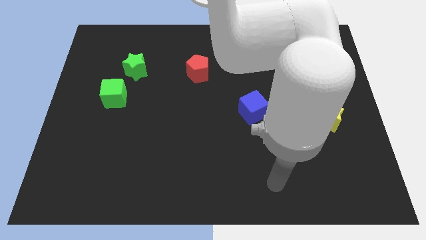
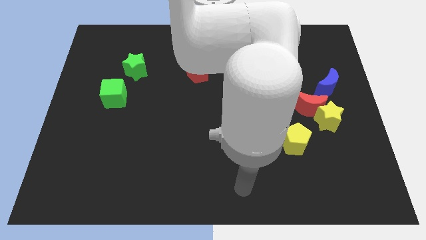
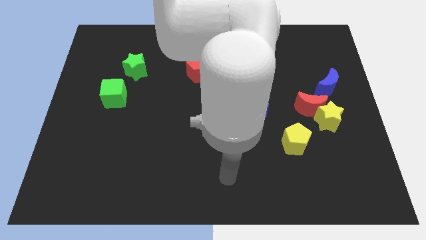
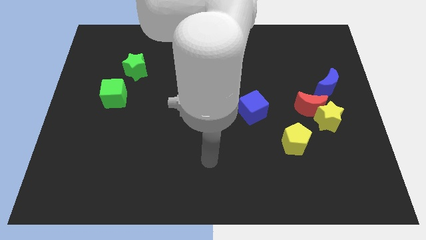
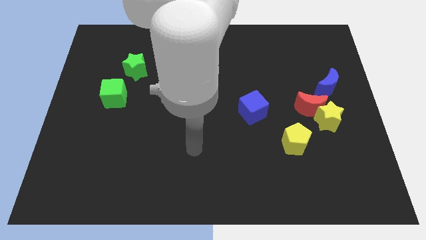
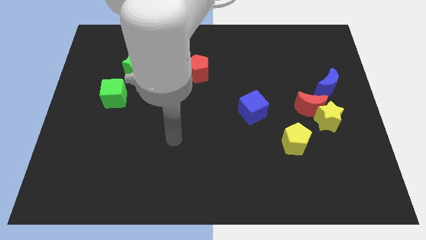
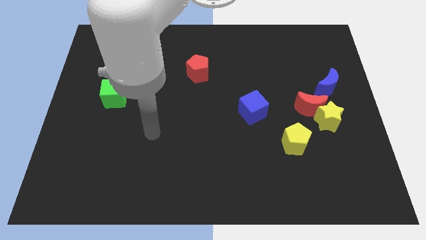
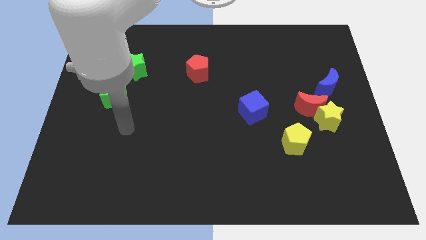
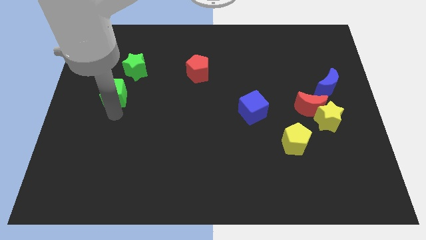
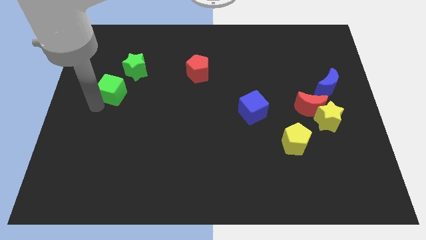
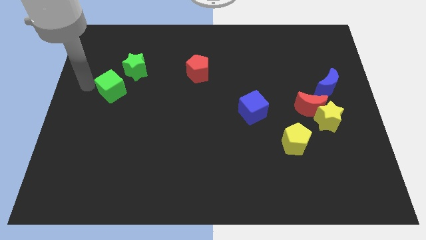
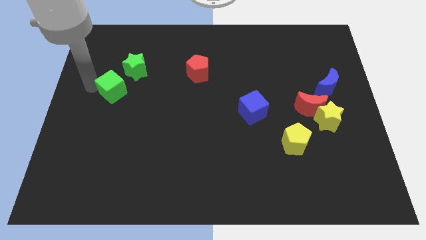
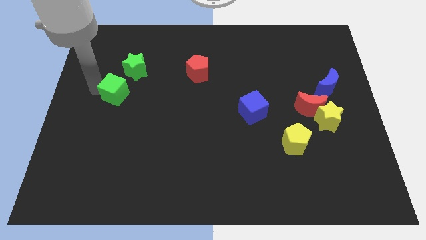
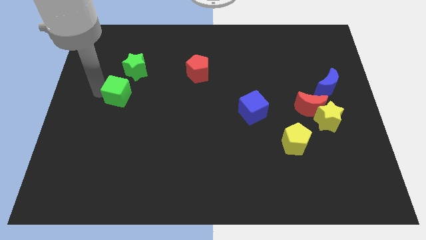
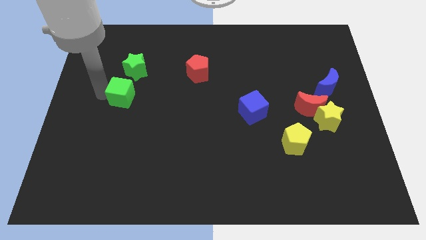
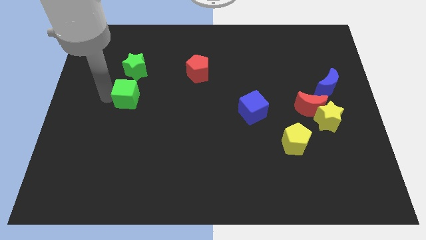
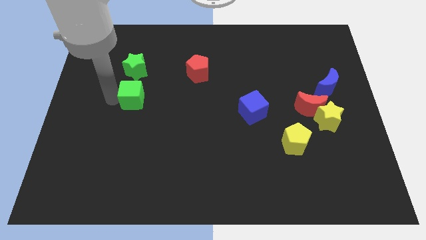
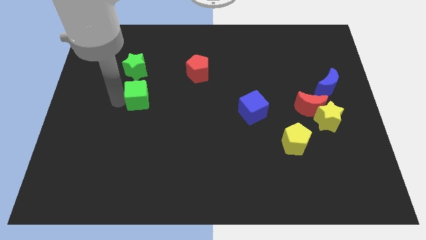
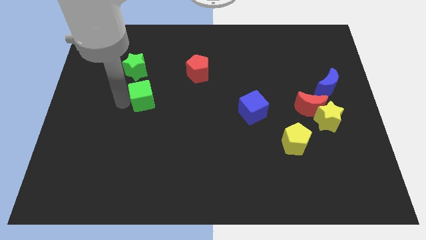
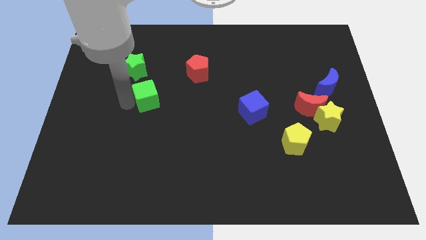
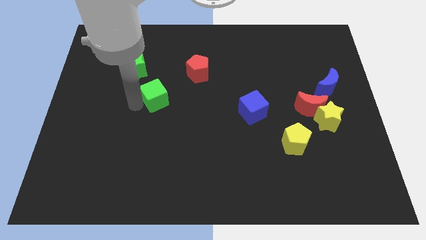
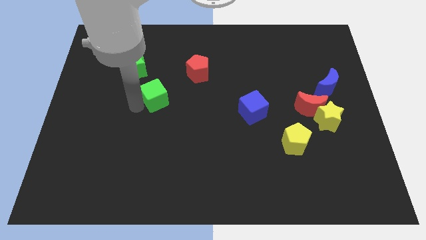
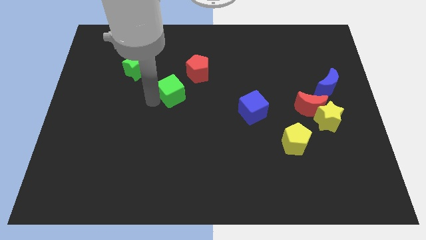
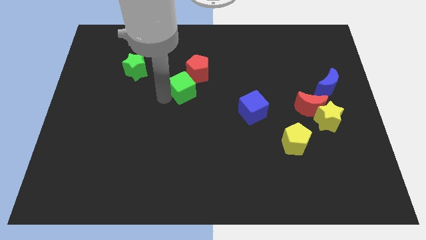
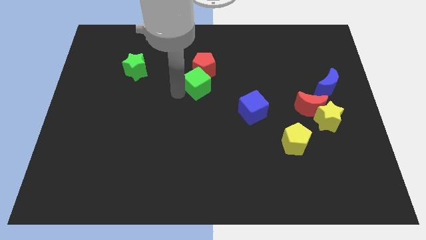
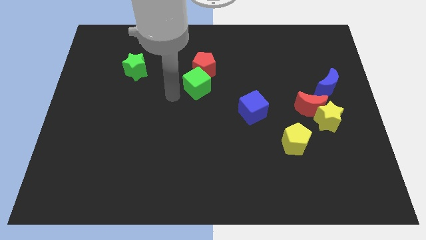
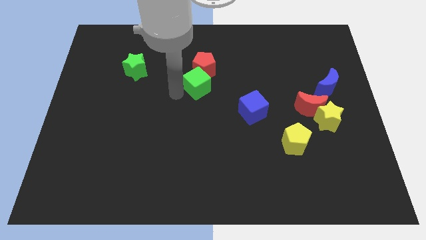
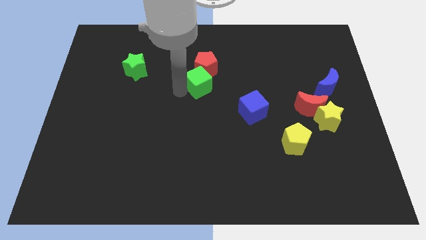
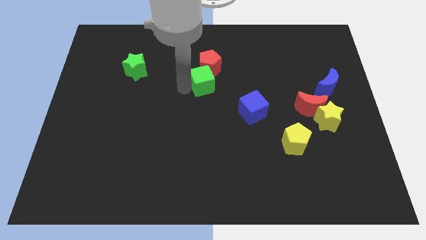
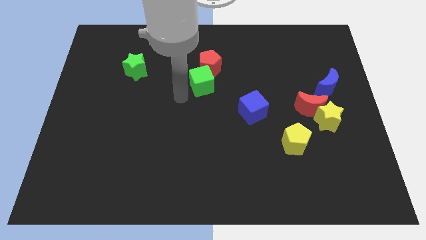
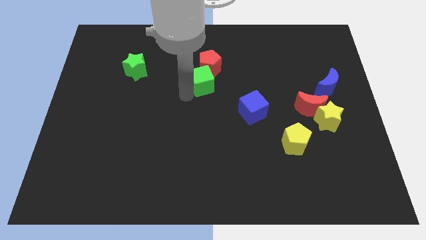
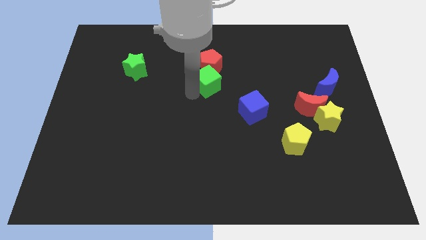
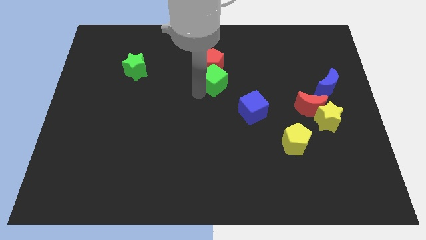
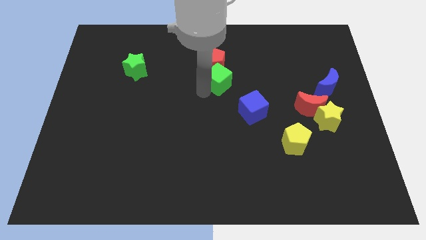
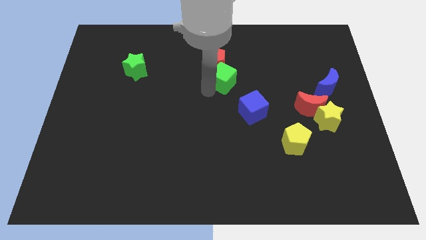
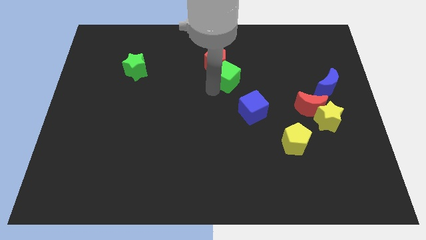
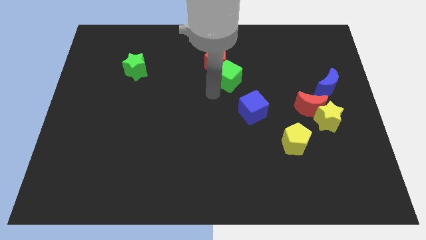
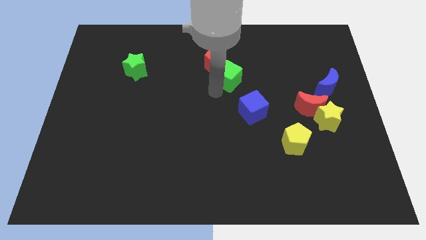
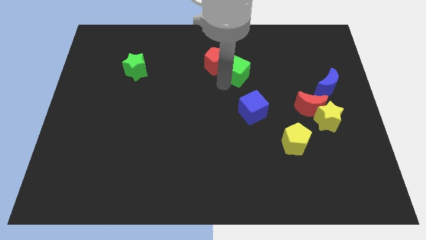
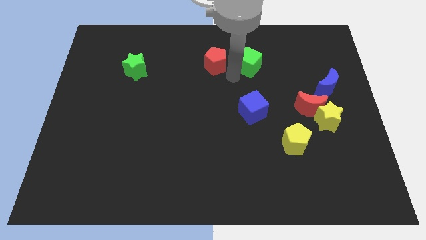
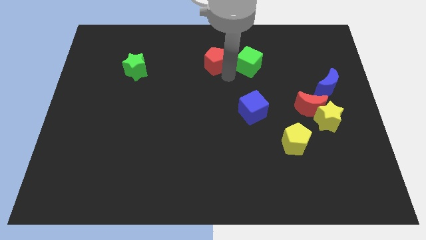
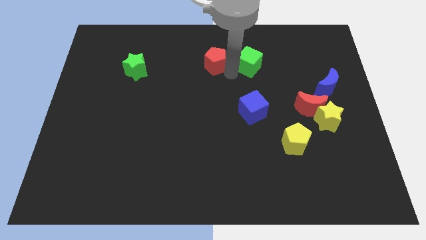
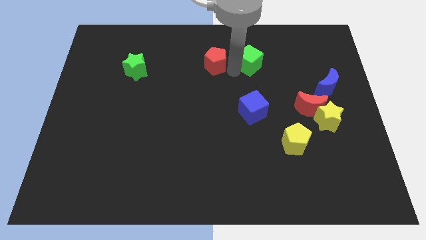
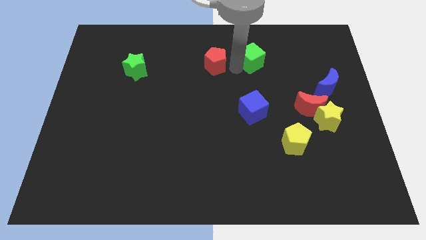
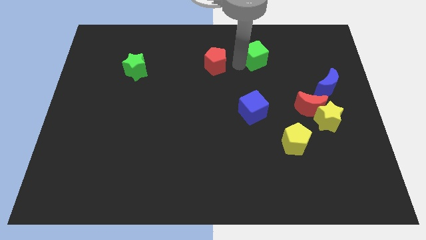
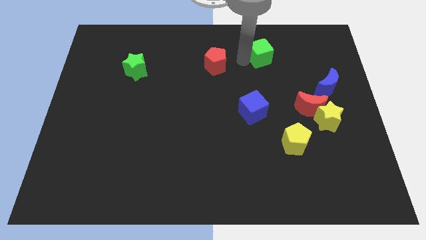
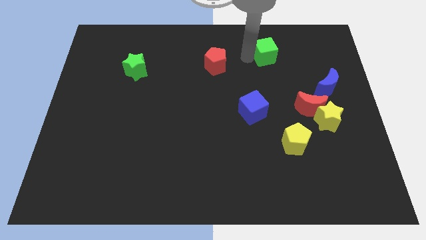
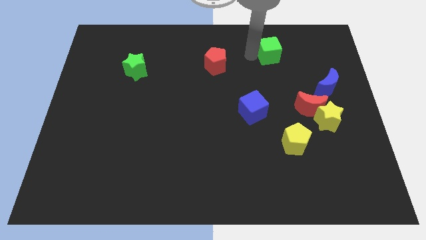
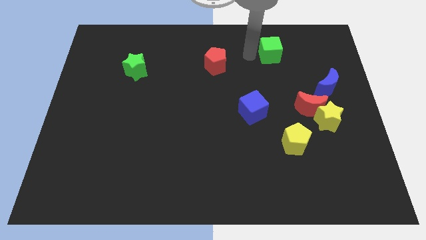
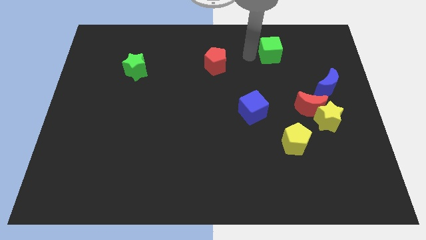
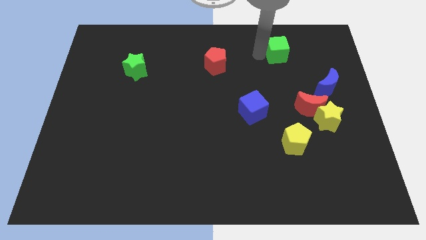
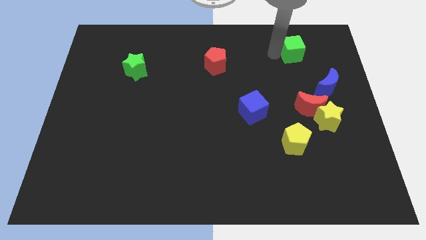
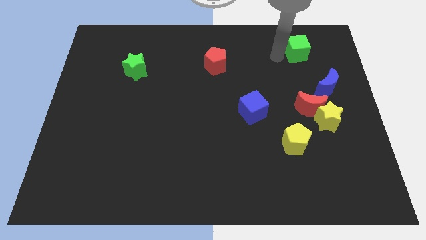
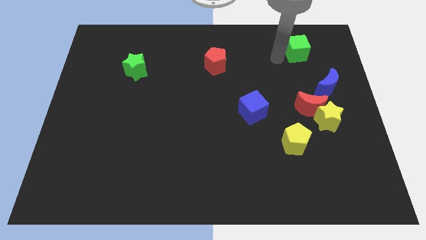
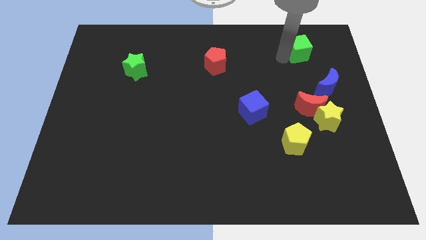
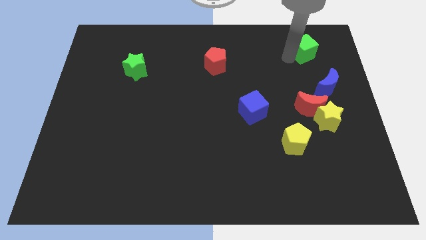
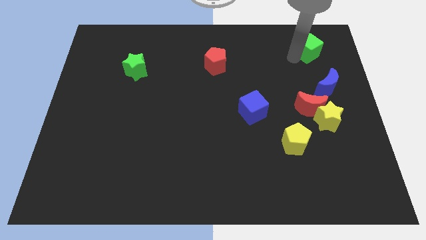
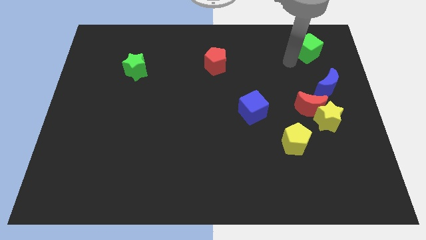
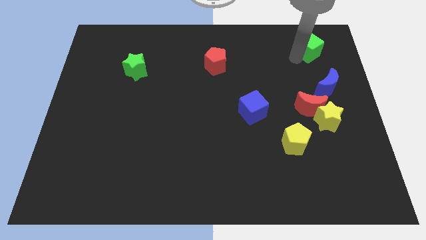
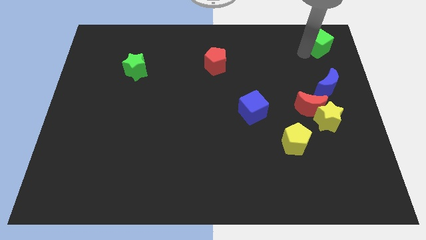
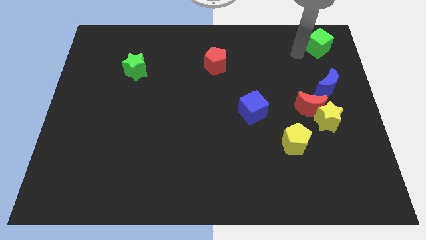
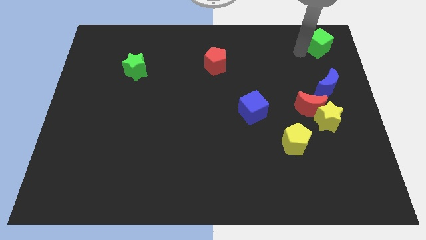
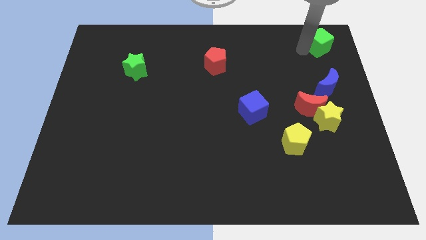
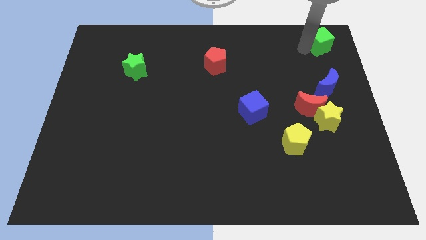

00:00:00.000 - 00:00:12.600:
put the green cube to the top right

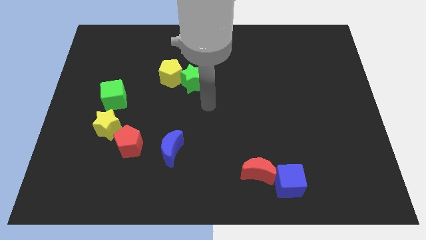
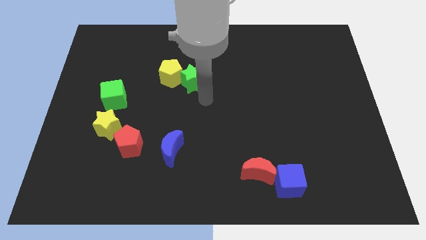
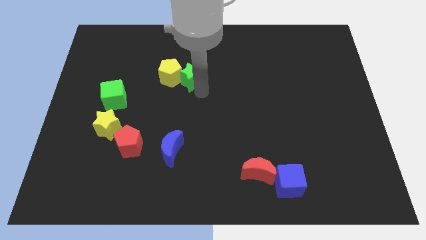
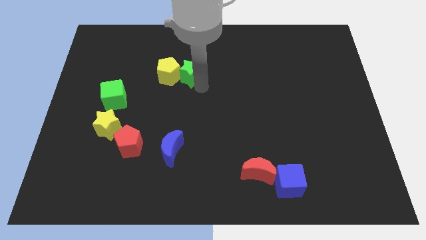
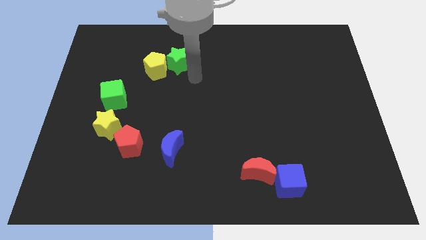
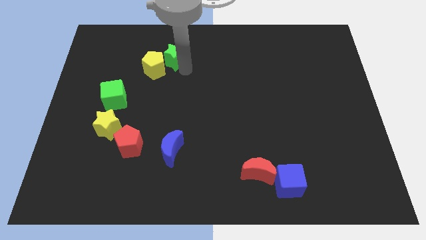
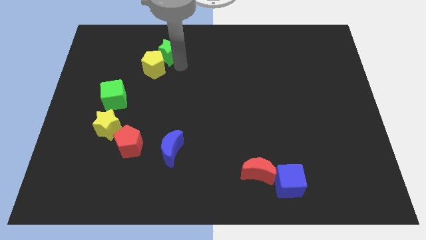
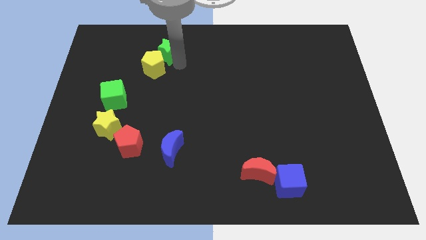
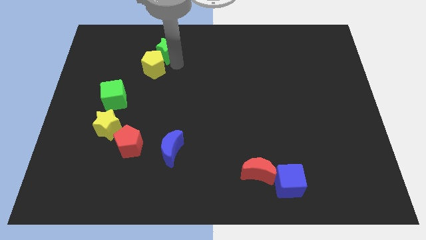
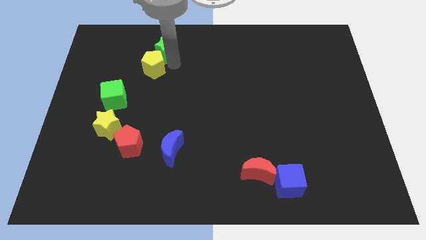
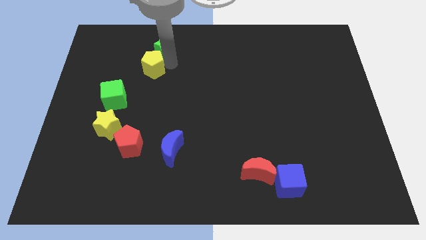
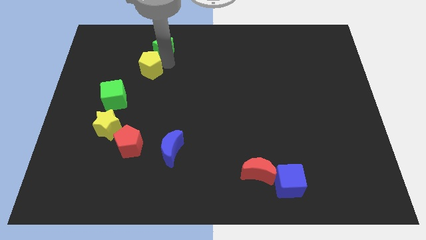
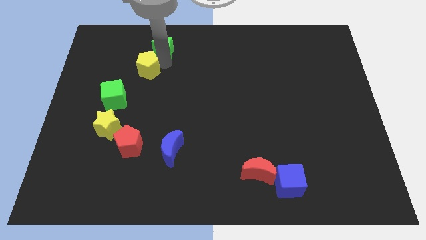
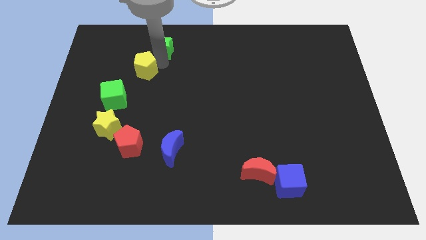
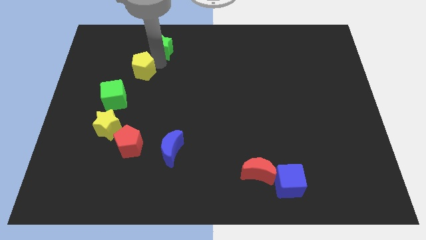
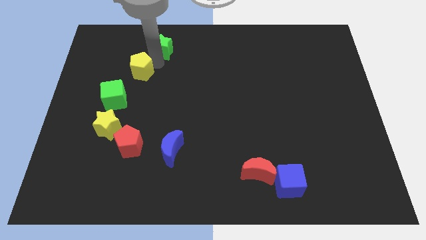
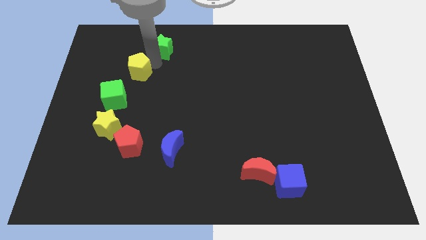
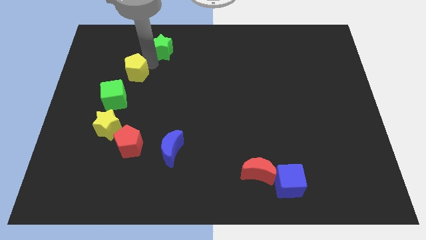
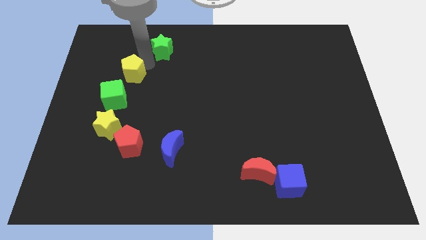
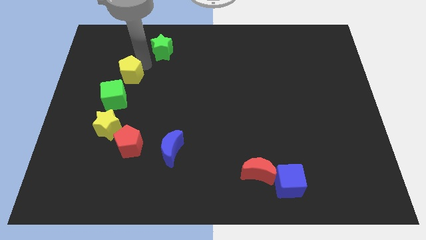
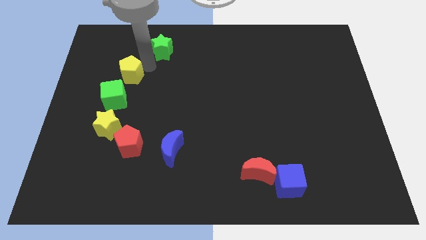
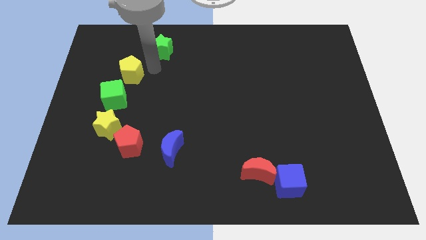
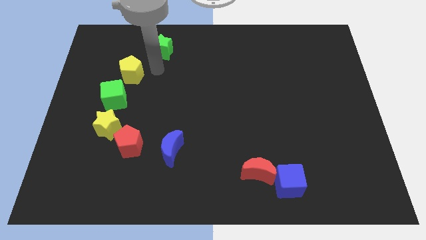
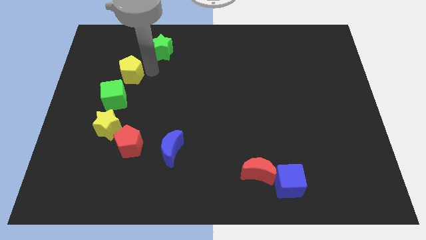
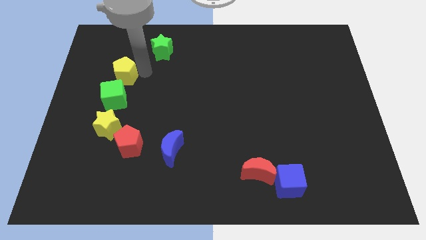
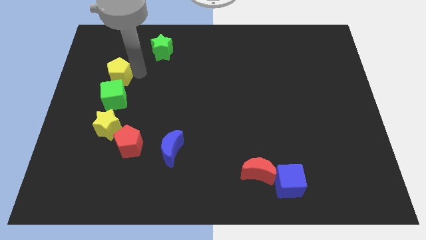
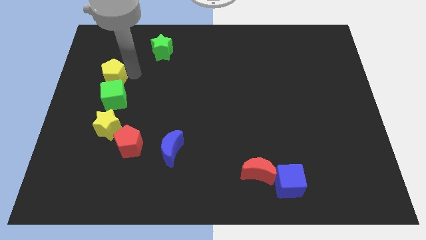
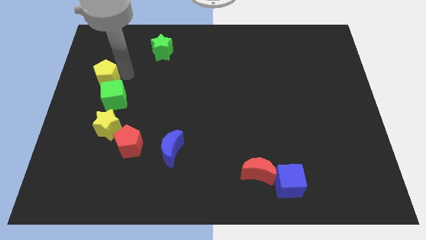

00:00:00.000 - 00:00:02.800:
move the yellow pentagon to the left side of the board
